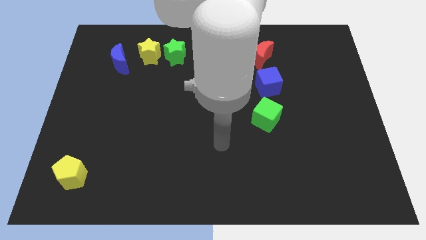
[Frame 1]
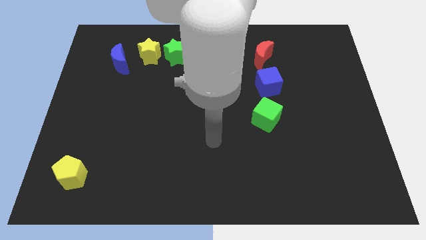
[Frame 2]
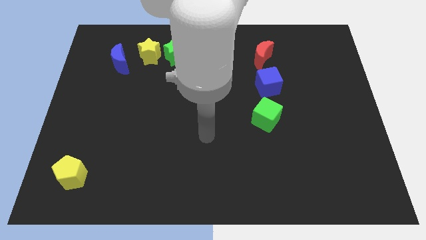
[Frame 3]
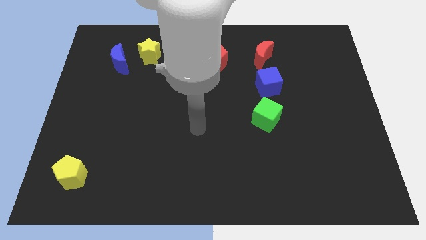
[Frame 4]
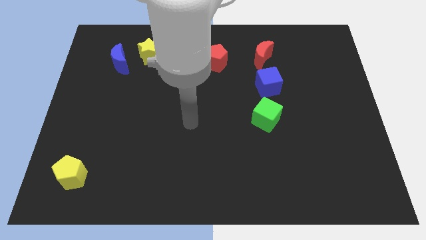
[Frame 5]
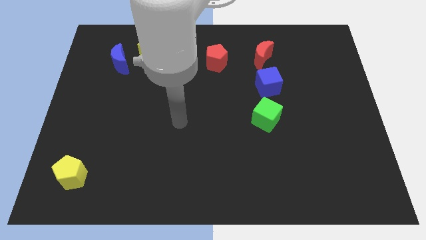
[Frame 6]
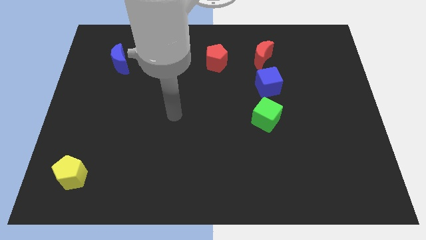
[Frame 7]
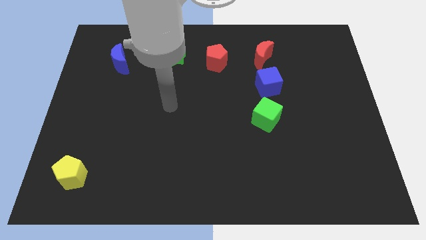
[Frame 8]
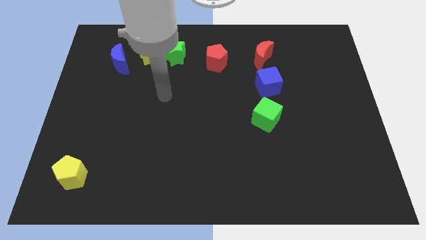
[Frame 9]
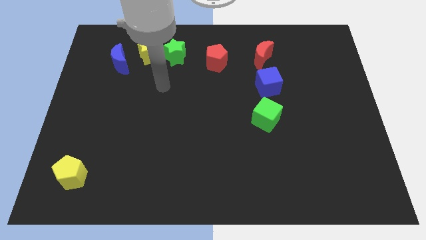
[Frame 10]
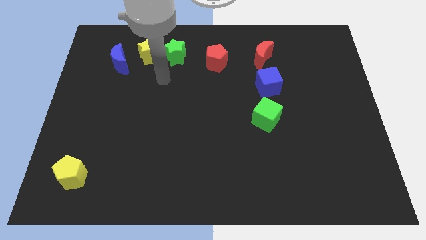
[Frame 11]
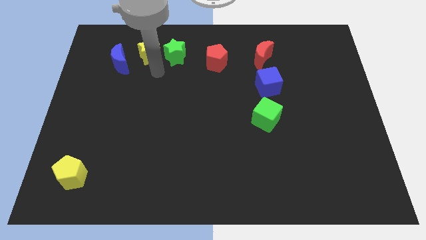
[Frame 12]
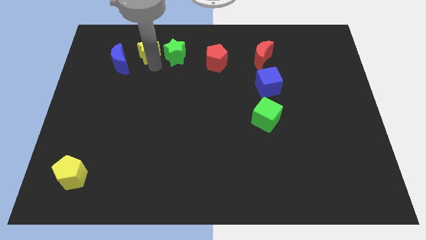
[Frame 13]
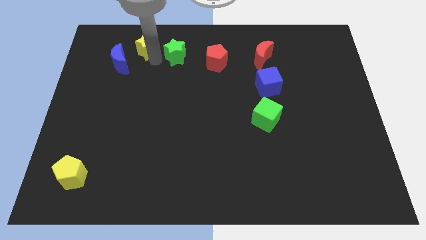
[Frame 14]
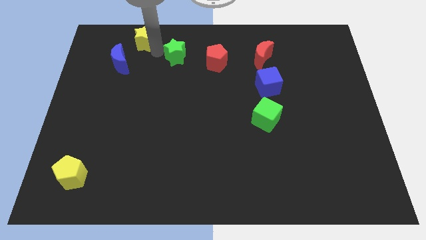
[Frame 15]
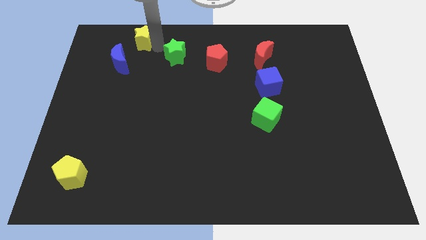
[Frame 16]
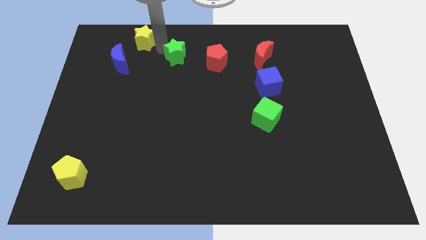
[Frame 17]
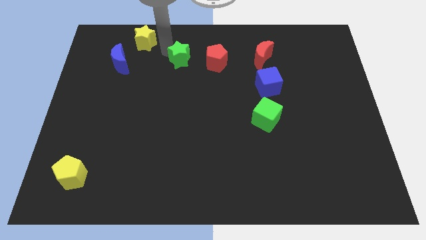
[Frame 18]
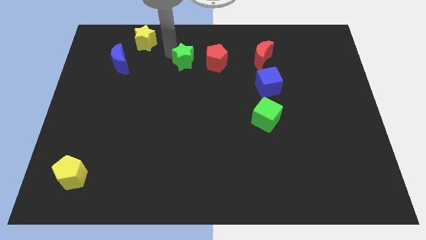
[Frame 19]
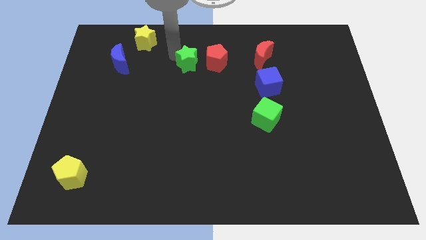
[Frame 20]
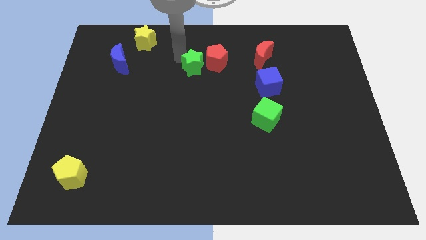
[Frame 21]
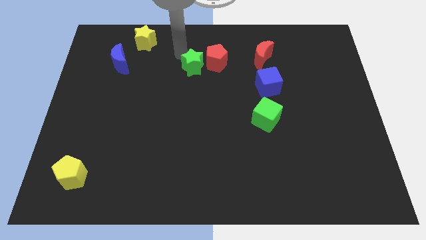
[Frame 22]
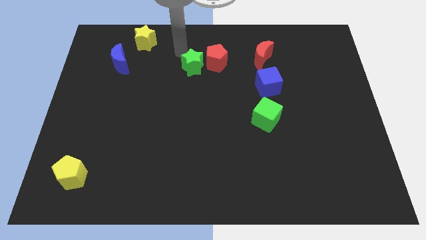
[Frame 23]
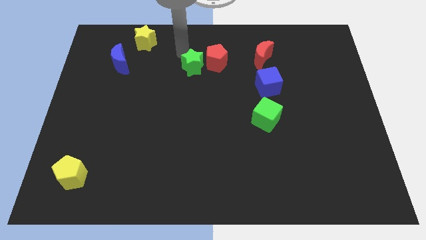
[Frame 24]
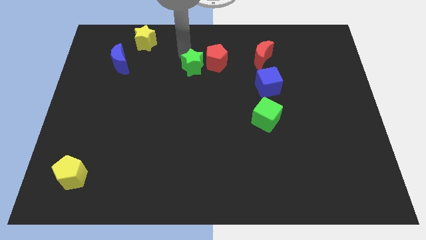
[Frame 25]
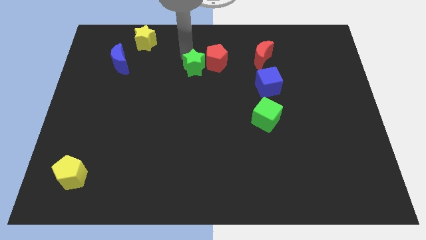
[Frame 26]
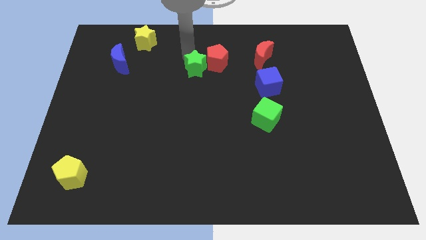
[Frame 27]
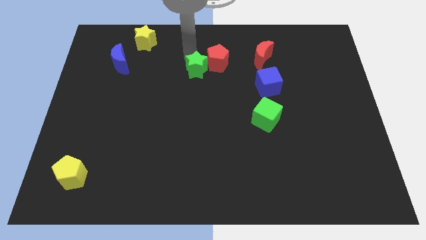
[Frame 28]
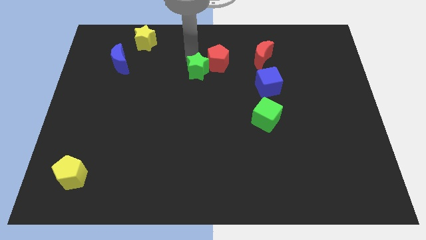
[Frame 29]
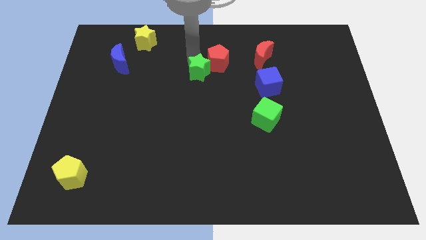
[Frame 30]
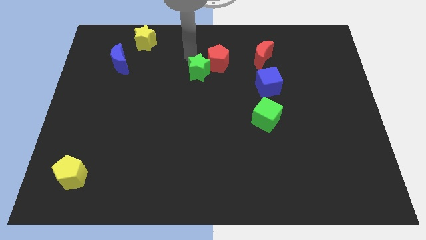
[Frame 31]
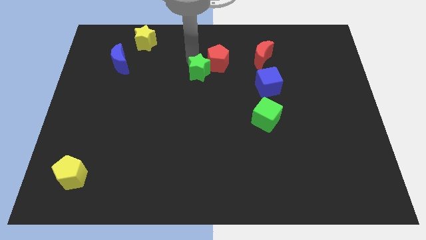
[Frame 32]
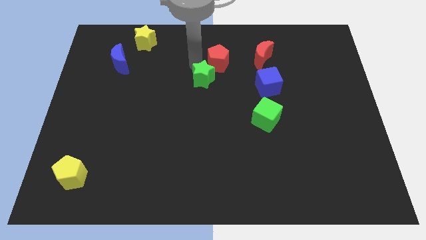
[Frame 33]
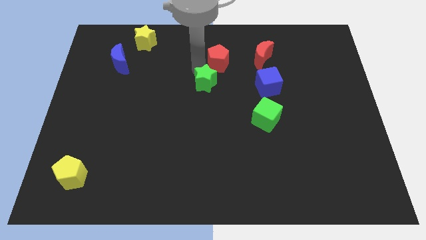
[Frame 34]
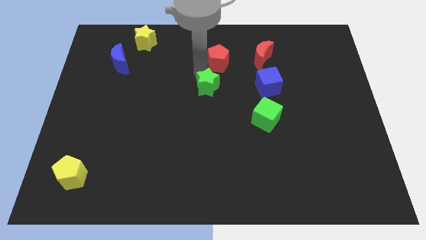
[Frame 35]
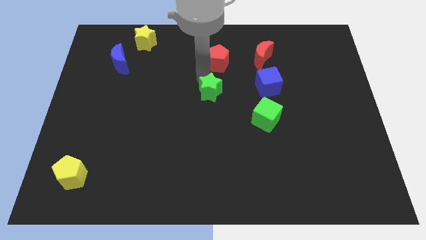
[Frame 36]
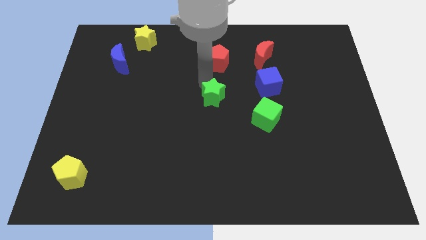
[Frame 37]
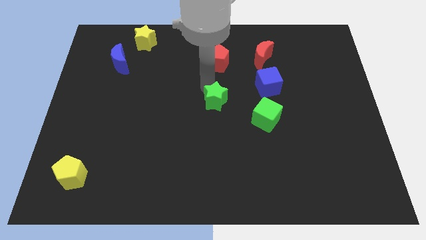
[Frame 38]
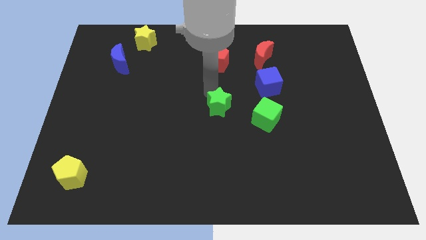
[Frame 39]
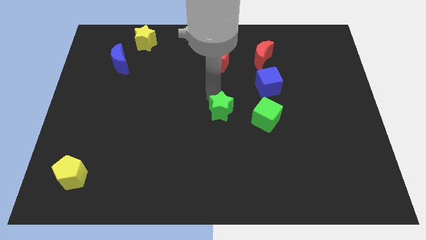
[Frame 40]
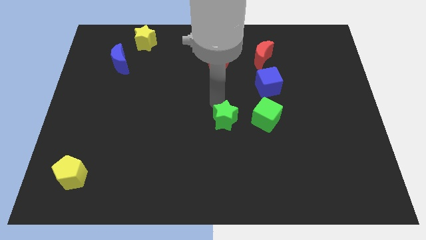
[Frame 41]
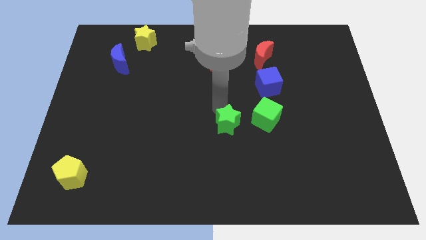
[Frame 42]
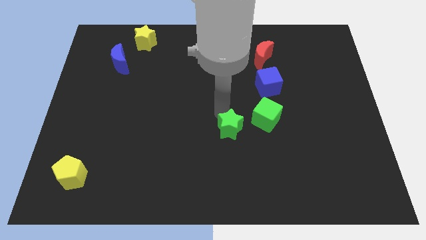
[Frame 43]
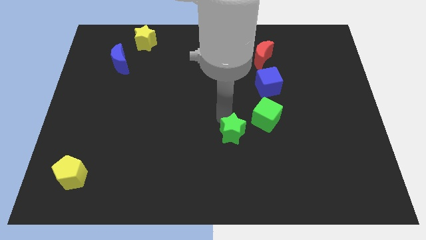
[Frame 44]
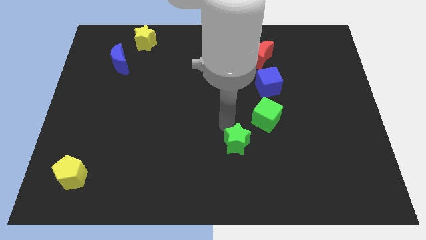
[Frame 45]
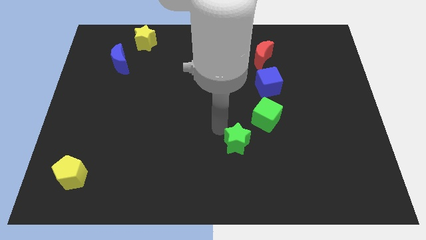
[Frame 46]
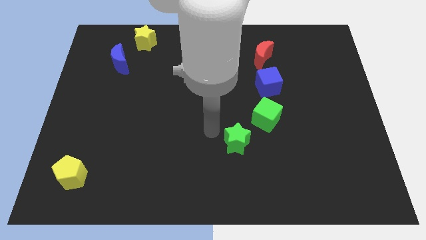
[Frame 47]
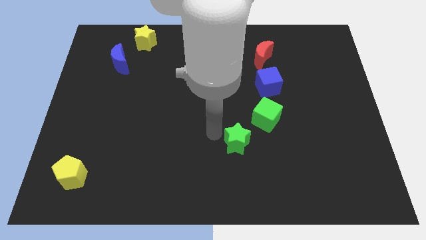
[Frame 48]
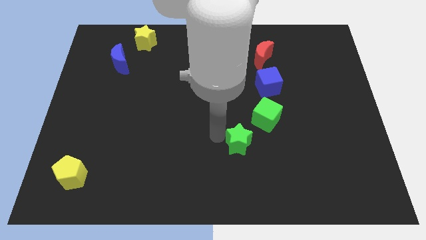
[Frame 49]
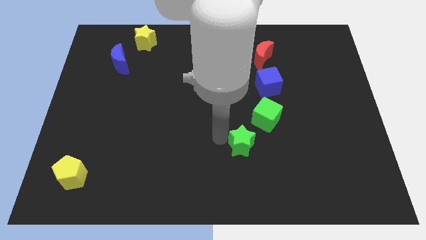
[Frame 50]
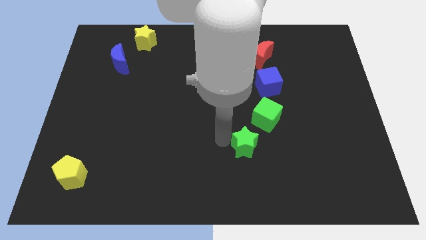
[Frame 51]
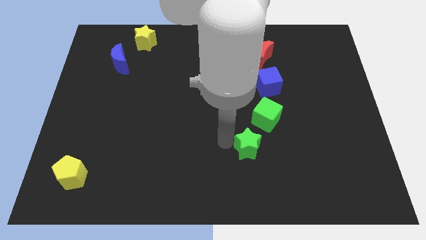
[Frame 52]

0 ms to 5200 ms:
move the green star to the bottom side of the green cube

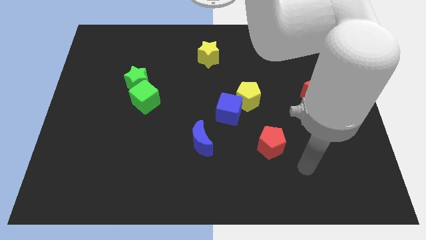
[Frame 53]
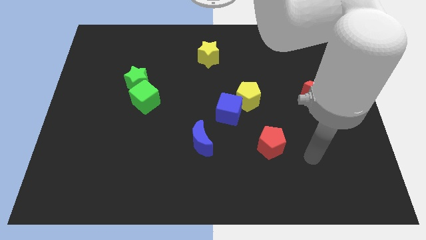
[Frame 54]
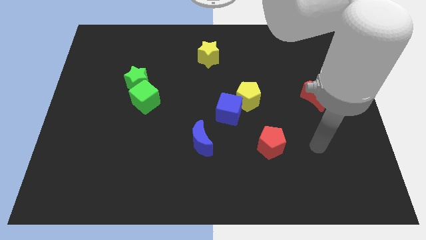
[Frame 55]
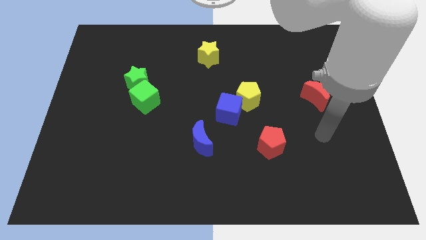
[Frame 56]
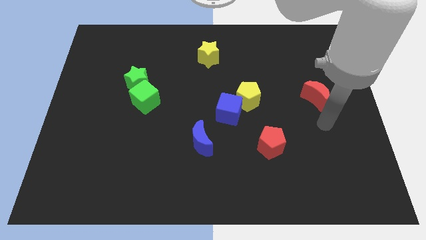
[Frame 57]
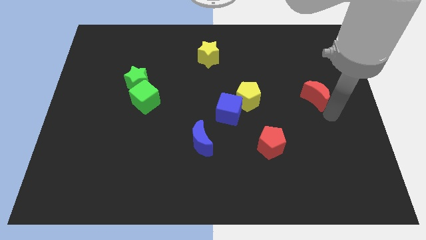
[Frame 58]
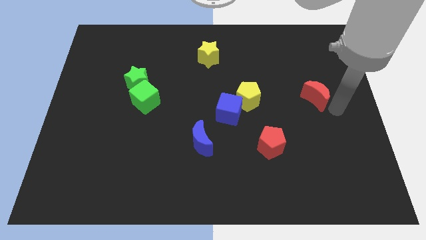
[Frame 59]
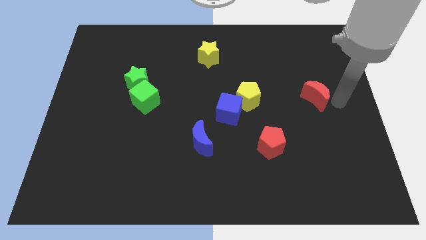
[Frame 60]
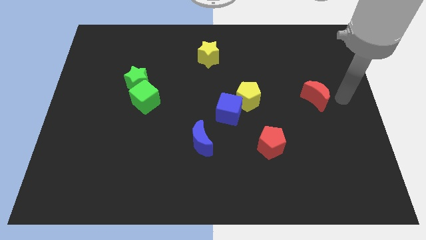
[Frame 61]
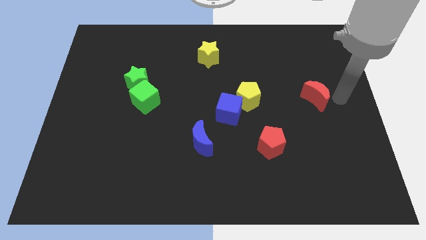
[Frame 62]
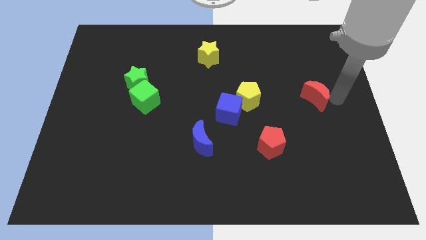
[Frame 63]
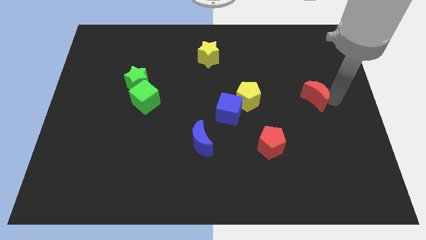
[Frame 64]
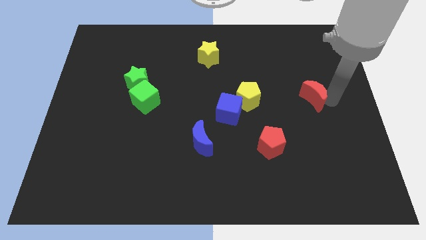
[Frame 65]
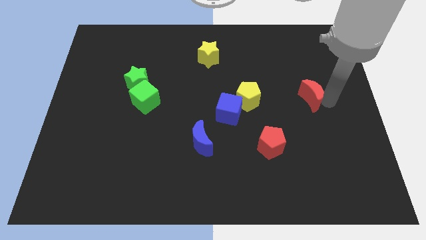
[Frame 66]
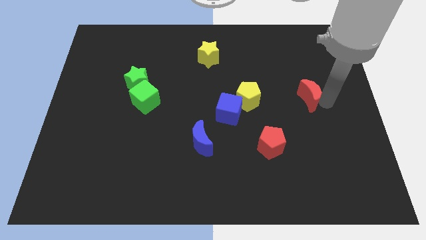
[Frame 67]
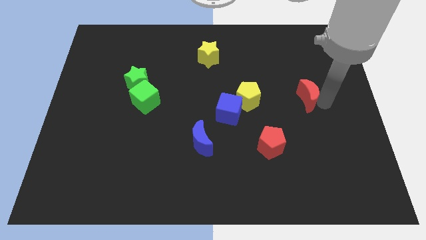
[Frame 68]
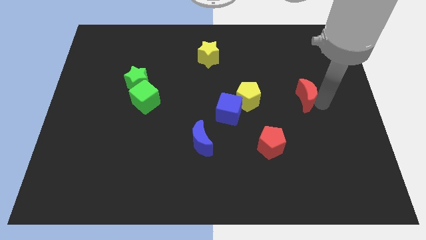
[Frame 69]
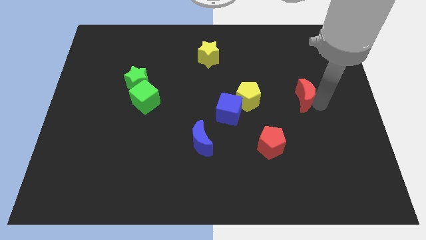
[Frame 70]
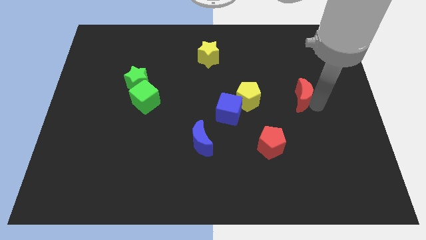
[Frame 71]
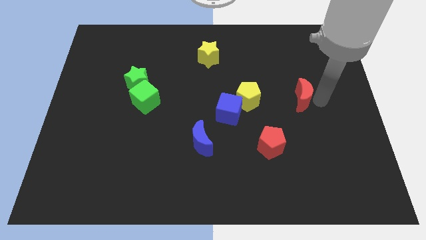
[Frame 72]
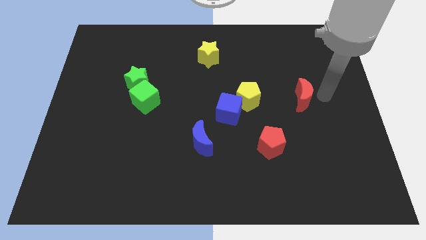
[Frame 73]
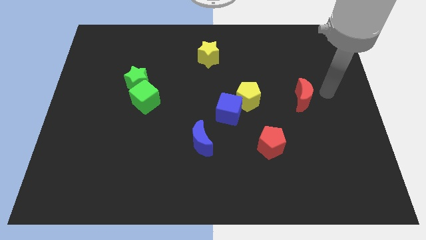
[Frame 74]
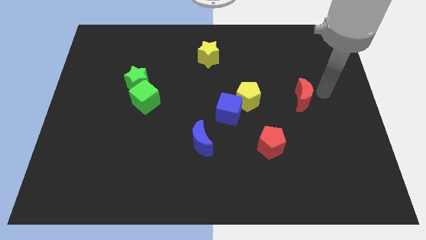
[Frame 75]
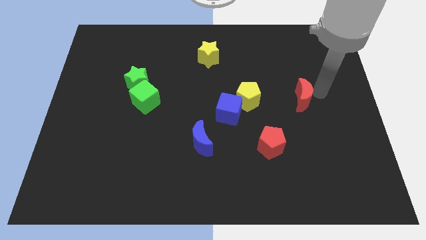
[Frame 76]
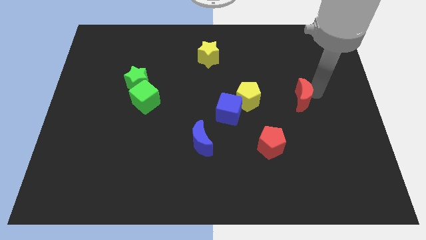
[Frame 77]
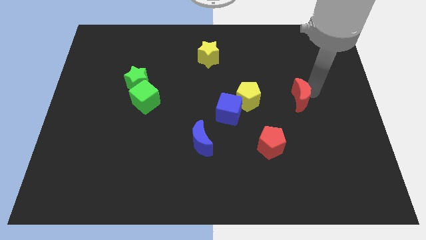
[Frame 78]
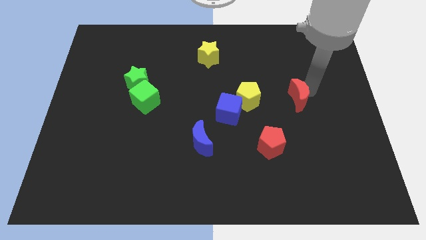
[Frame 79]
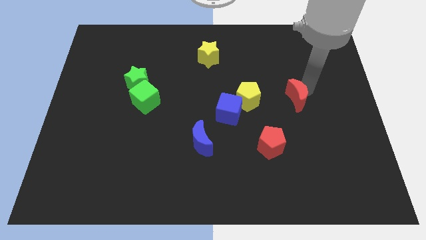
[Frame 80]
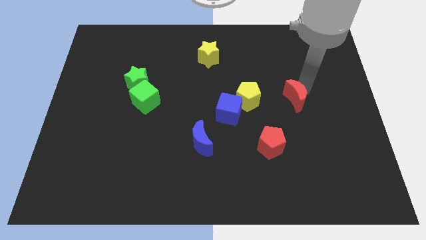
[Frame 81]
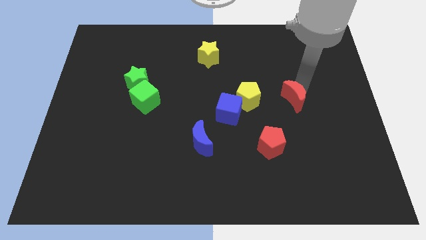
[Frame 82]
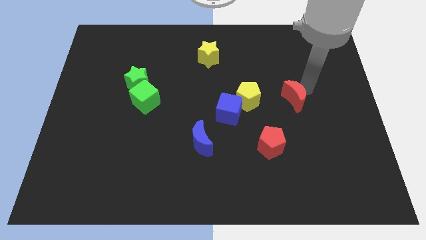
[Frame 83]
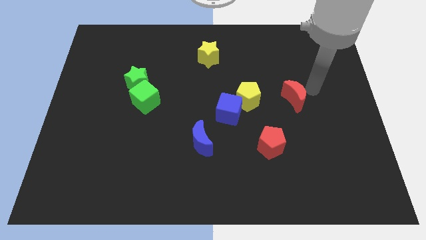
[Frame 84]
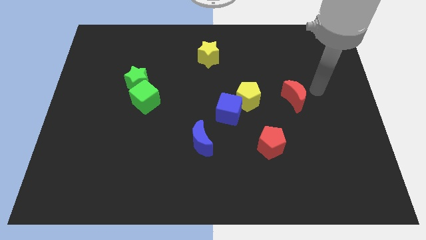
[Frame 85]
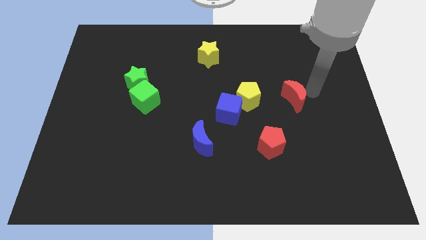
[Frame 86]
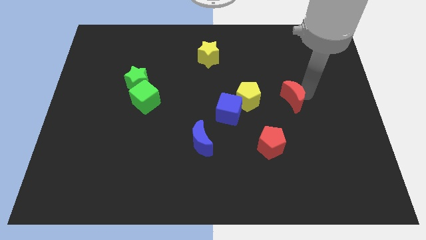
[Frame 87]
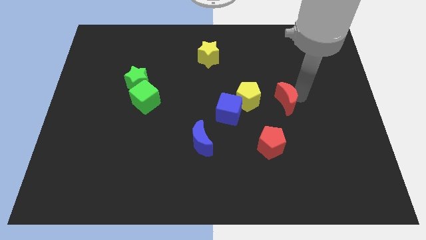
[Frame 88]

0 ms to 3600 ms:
push the red moon to the top of the red pentagon
